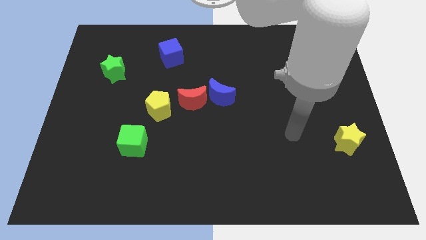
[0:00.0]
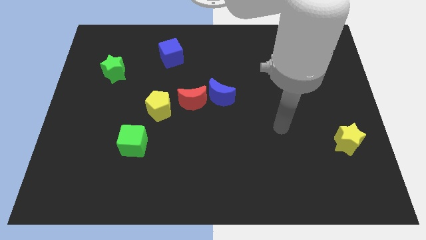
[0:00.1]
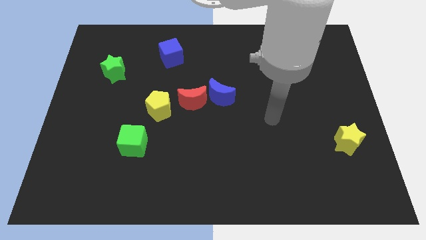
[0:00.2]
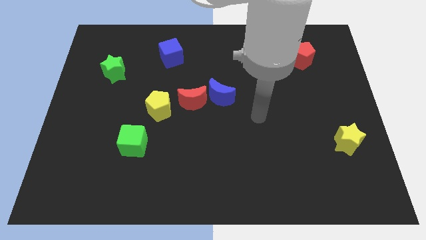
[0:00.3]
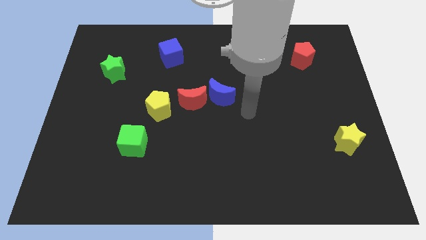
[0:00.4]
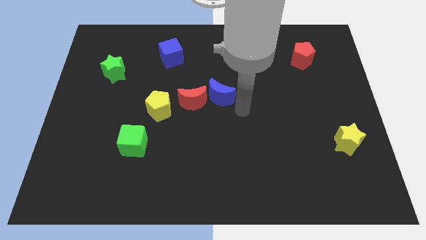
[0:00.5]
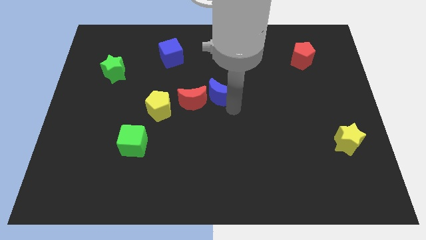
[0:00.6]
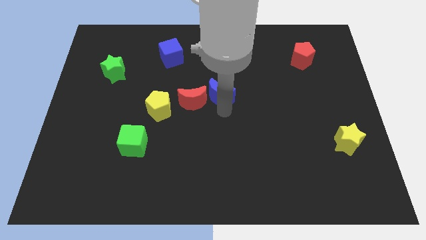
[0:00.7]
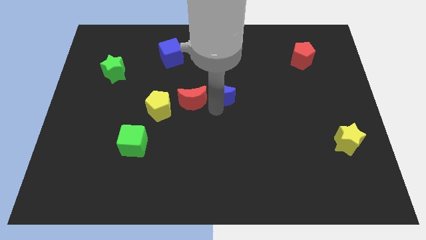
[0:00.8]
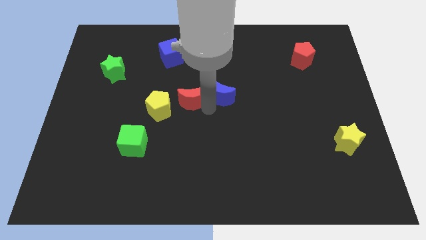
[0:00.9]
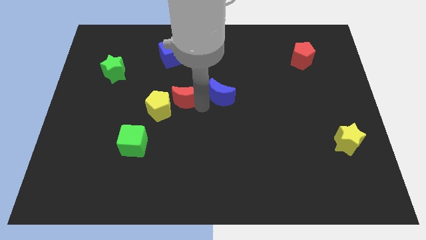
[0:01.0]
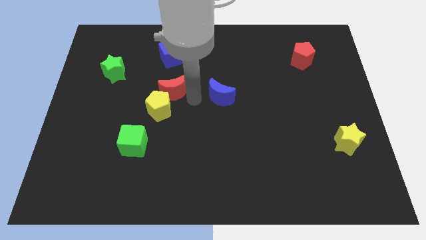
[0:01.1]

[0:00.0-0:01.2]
move the blue moon away from the red moon

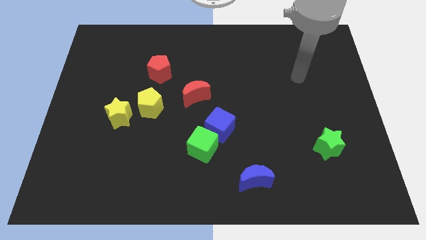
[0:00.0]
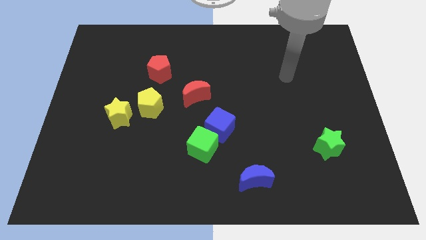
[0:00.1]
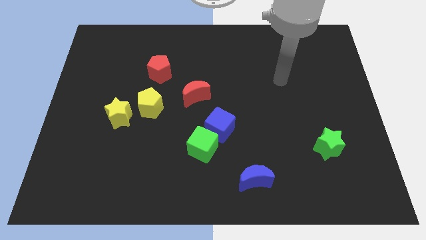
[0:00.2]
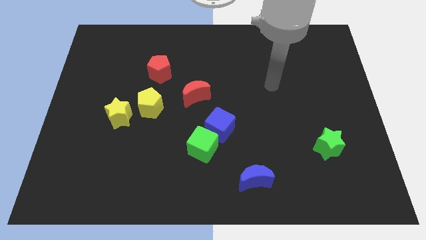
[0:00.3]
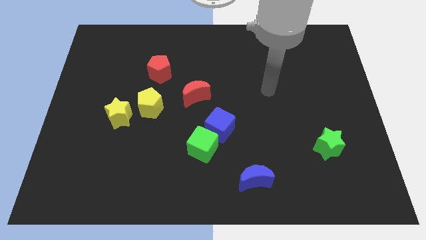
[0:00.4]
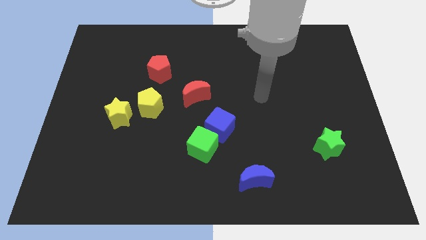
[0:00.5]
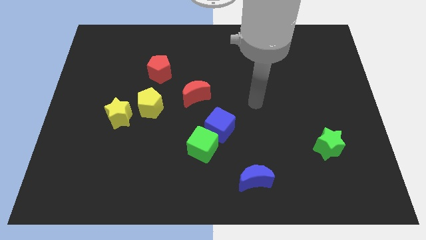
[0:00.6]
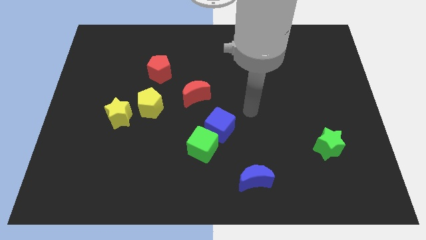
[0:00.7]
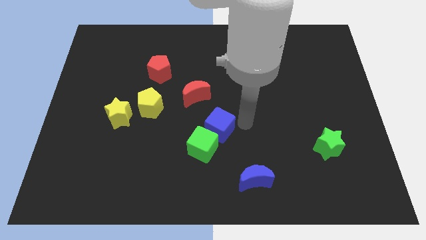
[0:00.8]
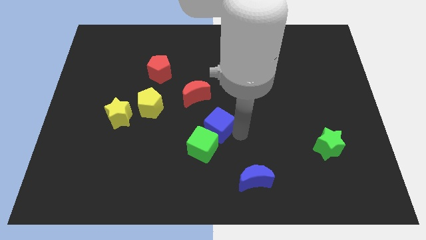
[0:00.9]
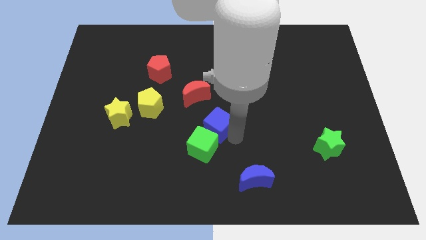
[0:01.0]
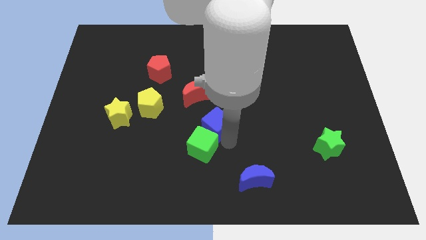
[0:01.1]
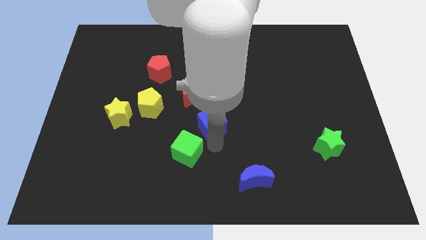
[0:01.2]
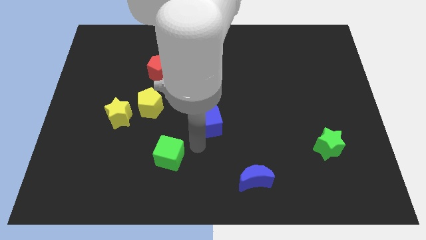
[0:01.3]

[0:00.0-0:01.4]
move the blue cube away from the green cube

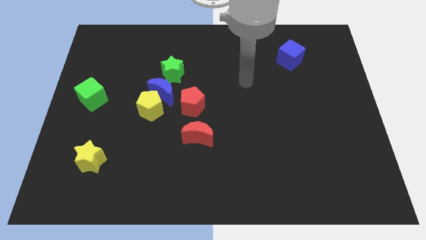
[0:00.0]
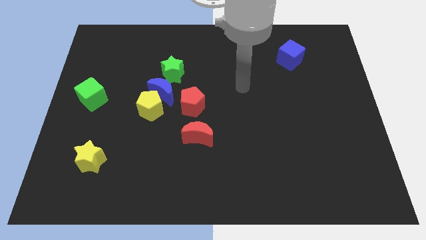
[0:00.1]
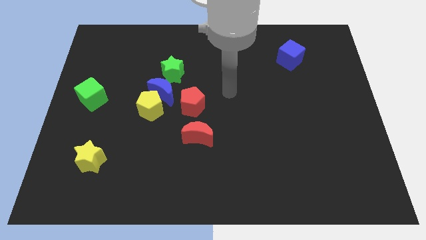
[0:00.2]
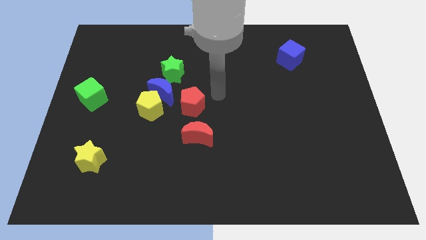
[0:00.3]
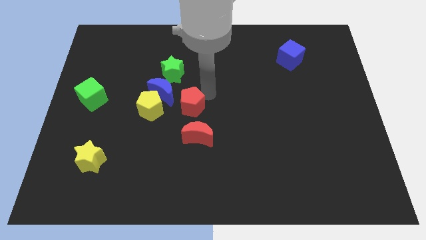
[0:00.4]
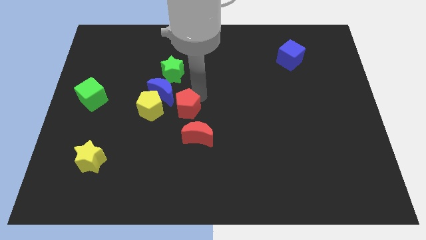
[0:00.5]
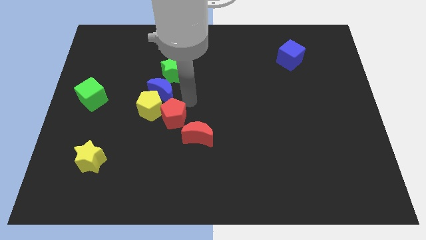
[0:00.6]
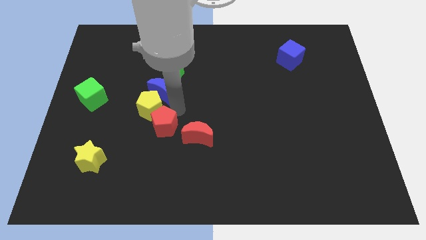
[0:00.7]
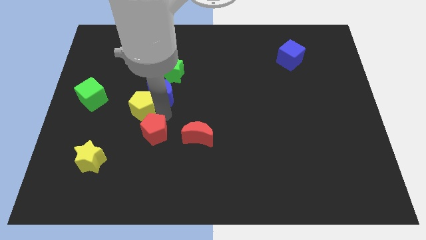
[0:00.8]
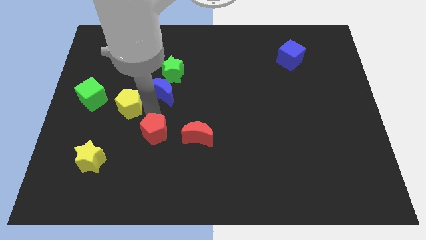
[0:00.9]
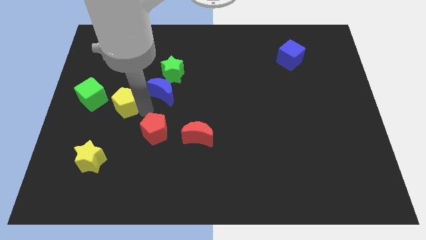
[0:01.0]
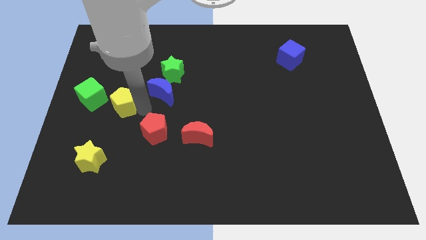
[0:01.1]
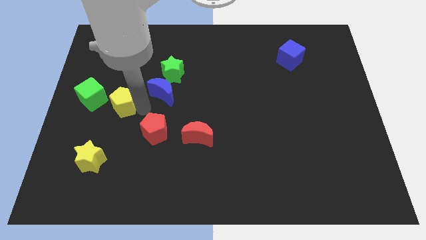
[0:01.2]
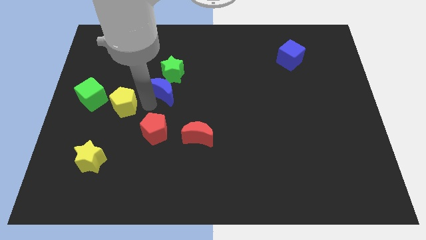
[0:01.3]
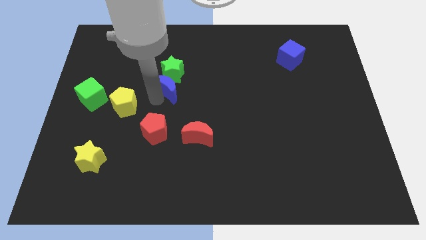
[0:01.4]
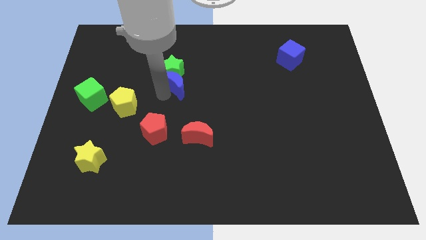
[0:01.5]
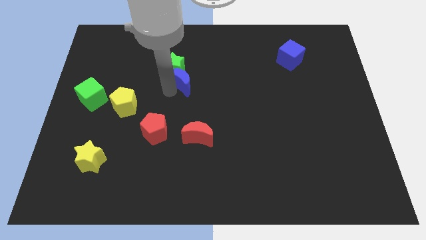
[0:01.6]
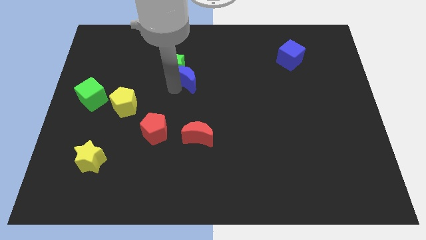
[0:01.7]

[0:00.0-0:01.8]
pull the blue moon apart from the group of blocks

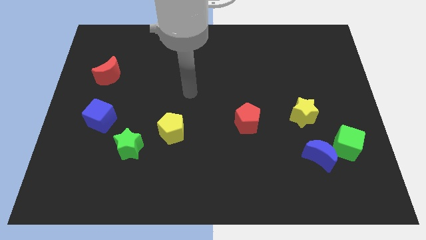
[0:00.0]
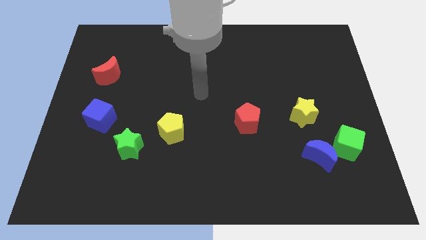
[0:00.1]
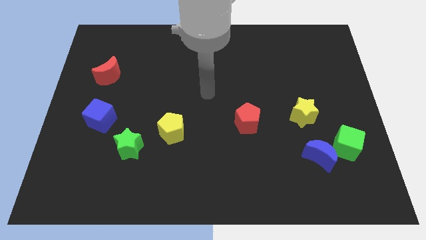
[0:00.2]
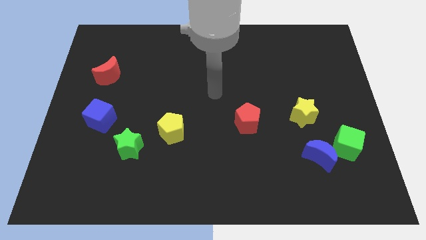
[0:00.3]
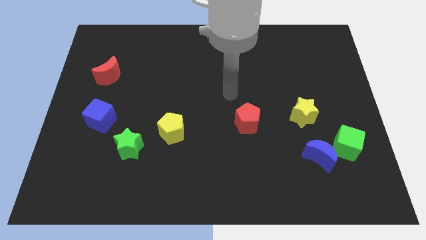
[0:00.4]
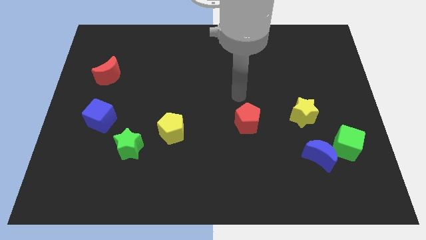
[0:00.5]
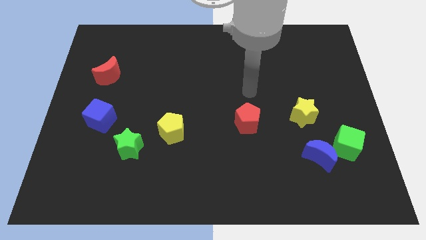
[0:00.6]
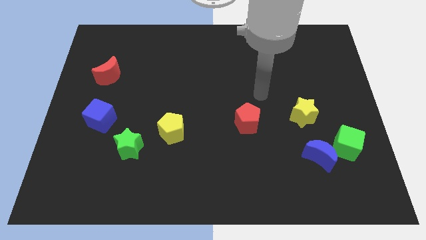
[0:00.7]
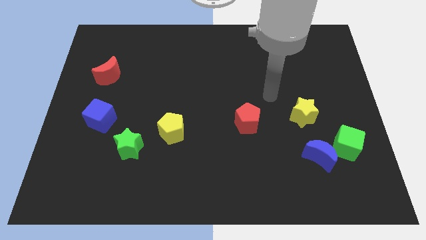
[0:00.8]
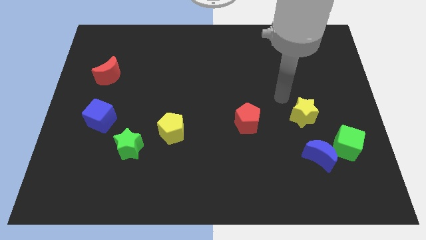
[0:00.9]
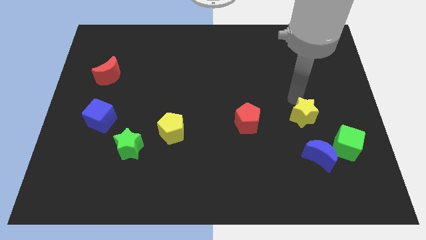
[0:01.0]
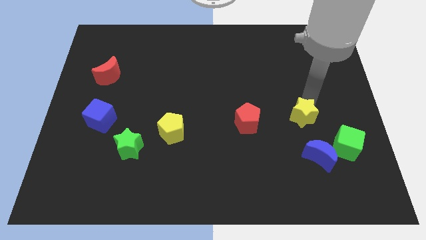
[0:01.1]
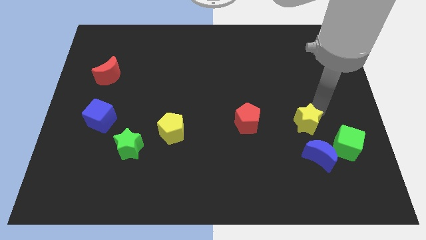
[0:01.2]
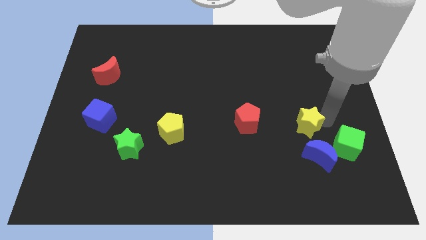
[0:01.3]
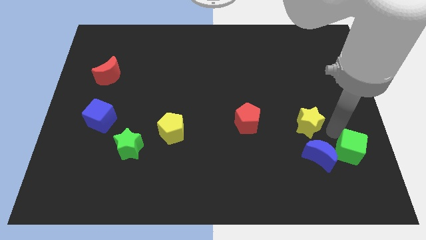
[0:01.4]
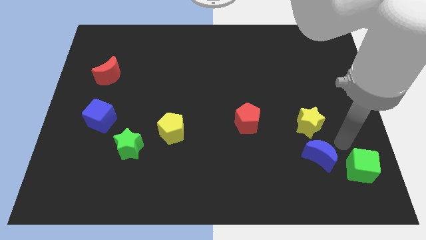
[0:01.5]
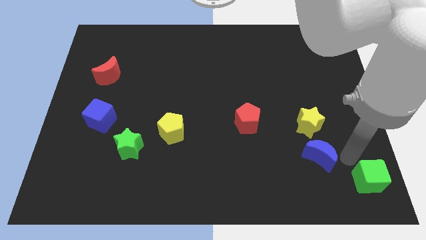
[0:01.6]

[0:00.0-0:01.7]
pull the blue moon apart from the green cube

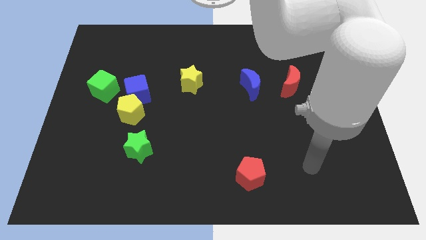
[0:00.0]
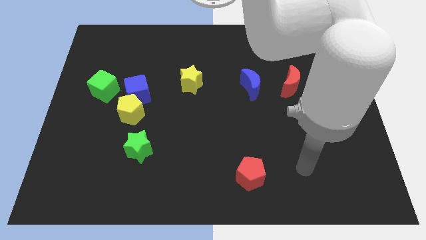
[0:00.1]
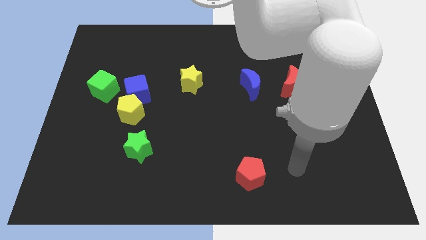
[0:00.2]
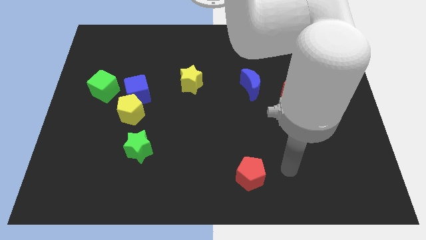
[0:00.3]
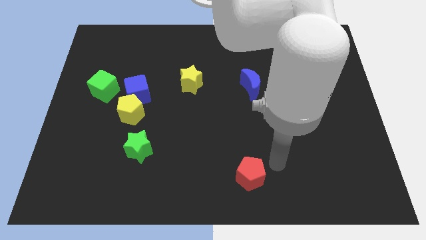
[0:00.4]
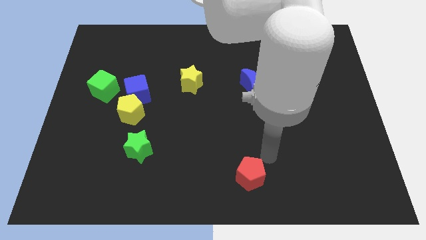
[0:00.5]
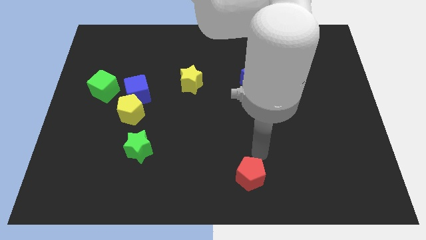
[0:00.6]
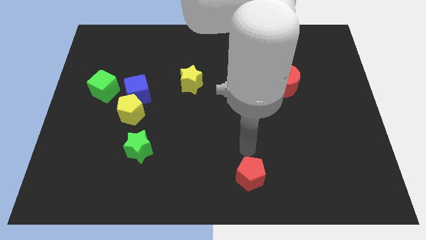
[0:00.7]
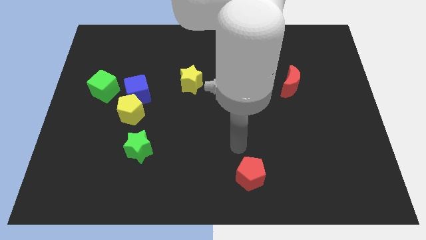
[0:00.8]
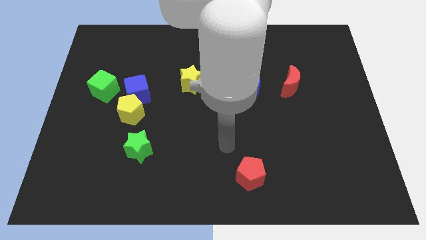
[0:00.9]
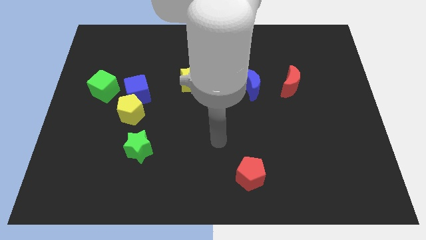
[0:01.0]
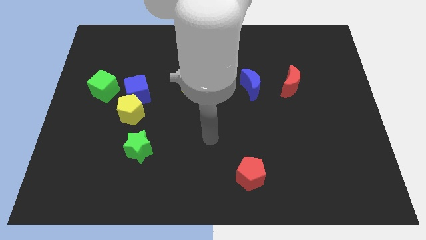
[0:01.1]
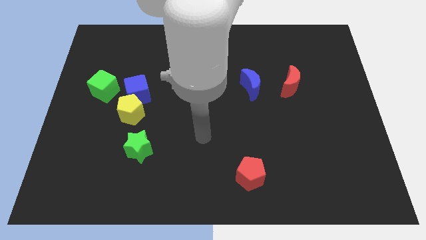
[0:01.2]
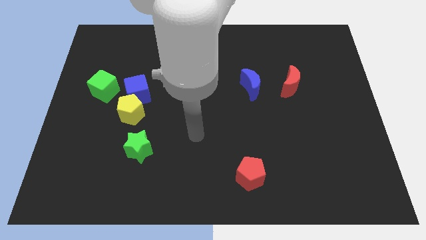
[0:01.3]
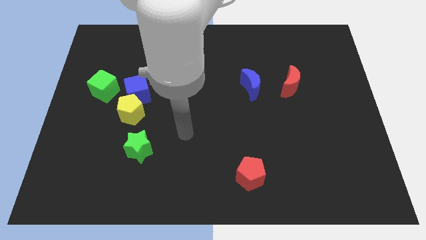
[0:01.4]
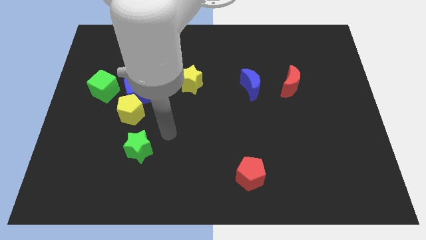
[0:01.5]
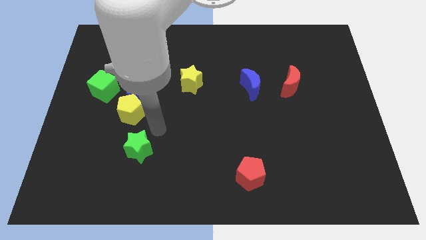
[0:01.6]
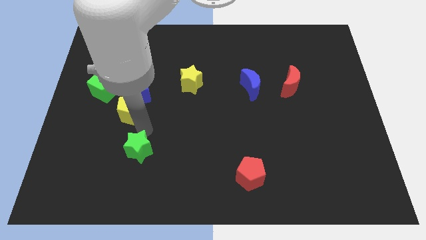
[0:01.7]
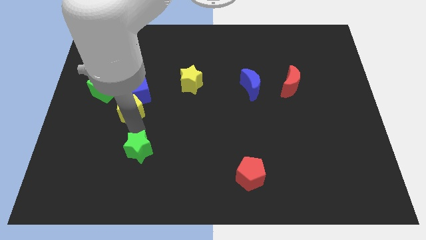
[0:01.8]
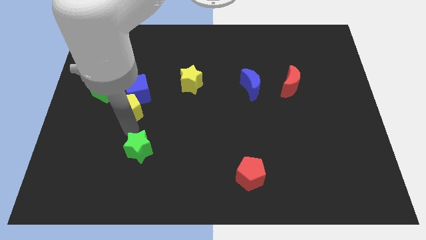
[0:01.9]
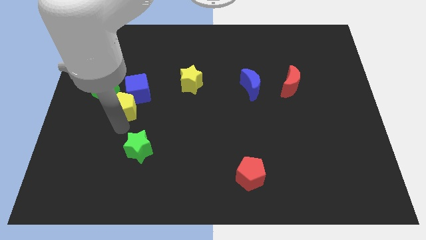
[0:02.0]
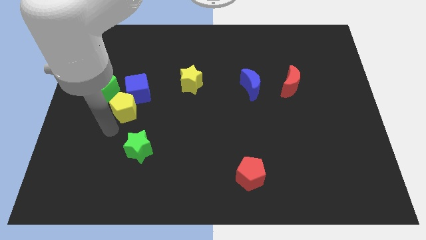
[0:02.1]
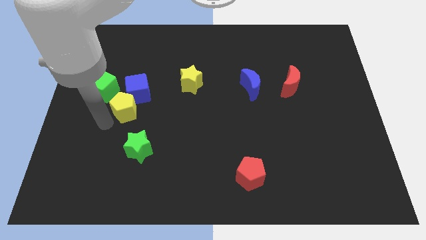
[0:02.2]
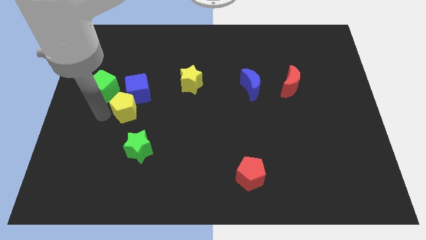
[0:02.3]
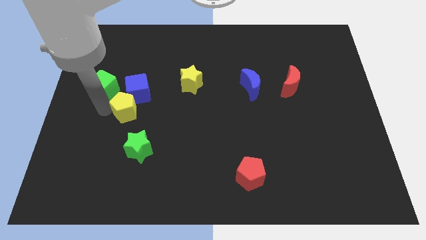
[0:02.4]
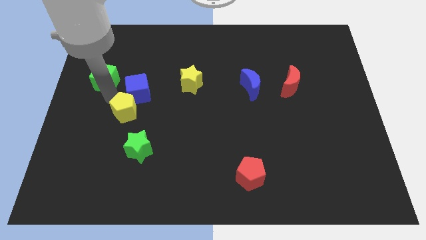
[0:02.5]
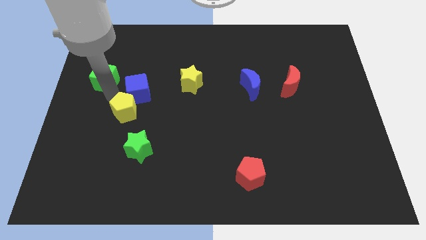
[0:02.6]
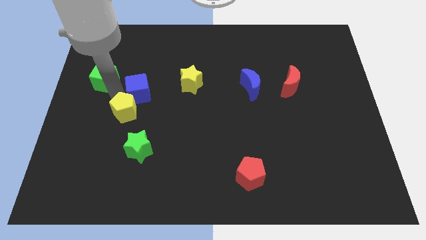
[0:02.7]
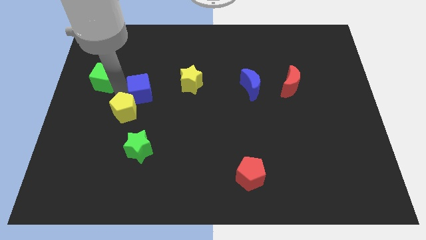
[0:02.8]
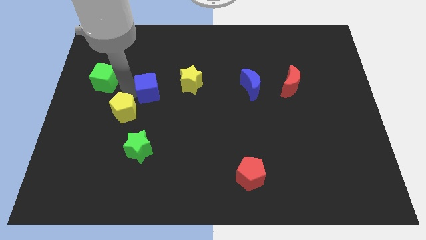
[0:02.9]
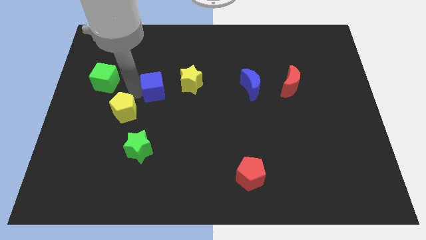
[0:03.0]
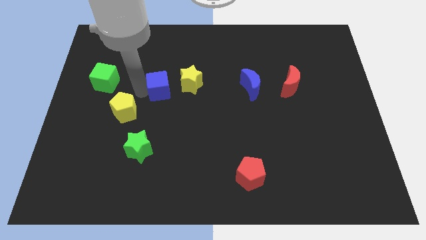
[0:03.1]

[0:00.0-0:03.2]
pull the blue cube apart from the yellow pentagon and green cube
